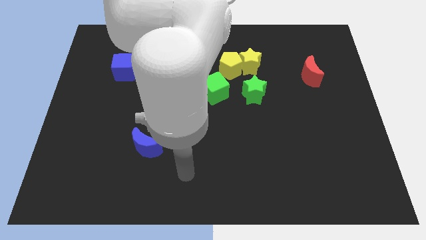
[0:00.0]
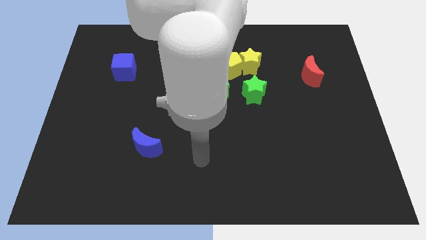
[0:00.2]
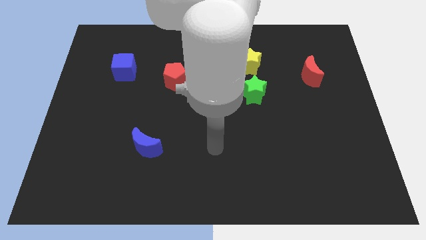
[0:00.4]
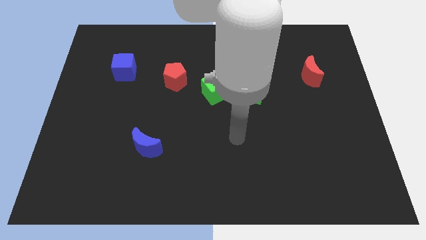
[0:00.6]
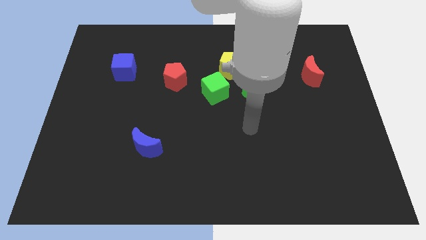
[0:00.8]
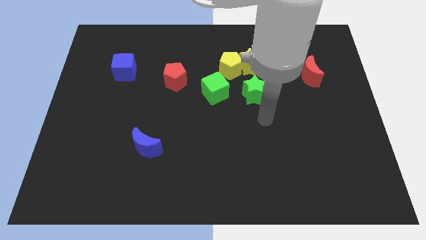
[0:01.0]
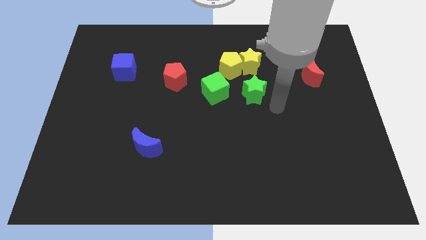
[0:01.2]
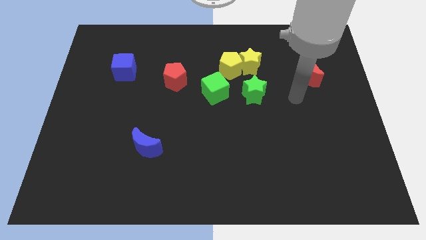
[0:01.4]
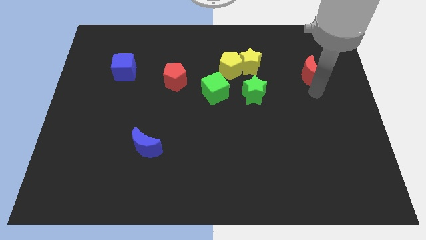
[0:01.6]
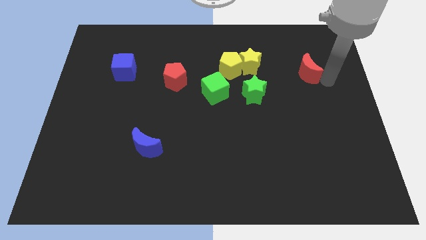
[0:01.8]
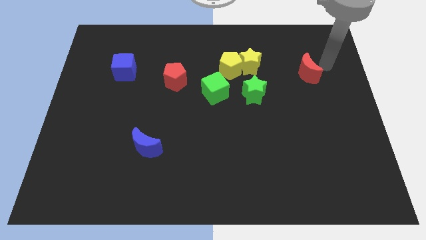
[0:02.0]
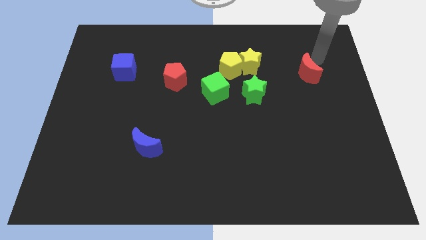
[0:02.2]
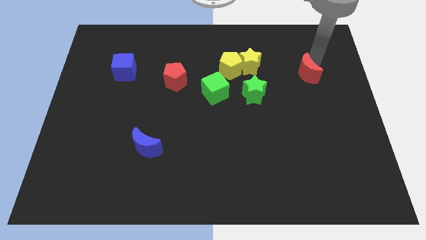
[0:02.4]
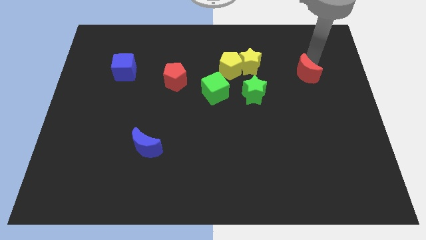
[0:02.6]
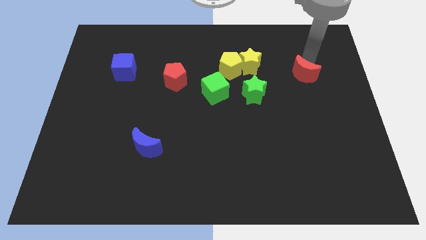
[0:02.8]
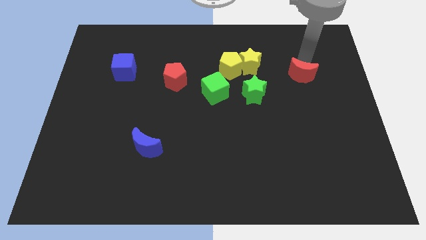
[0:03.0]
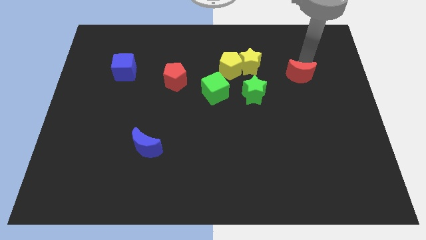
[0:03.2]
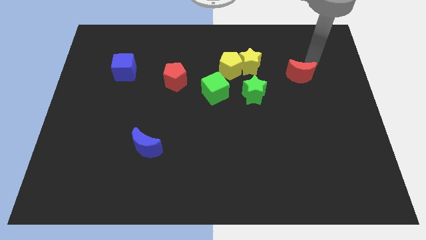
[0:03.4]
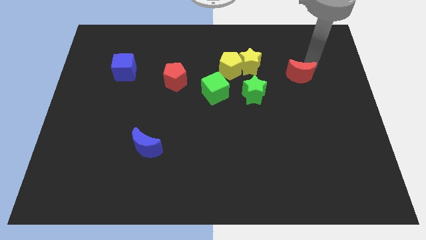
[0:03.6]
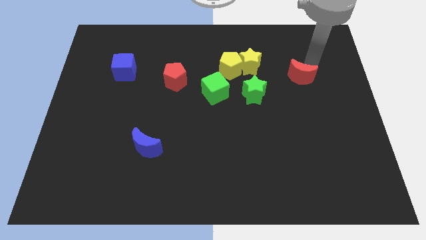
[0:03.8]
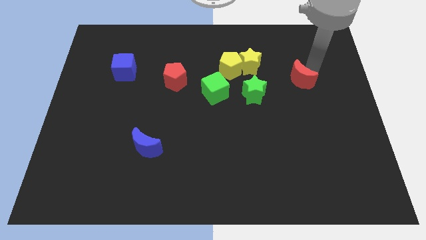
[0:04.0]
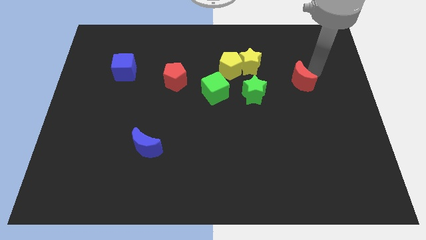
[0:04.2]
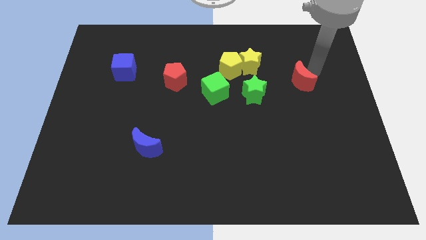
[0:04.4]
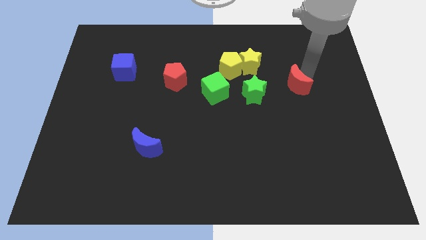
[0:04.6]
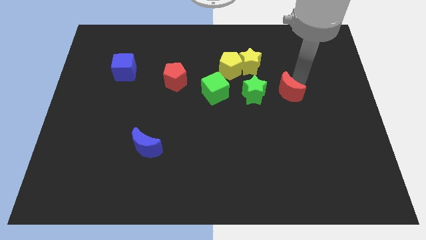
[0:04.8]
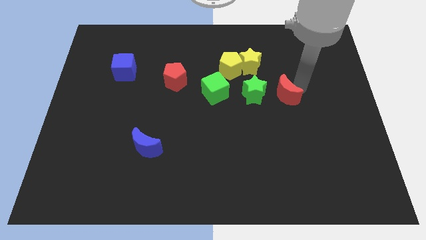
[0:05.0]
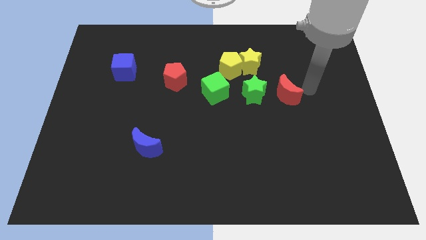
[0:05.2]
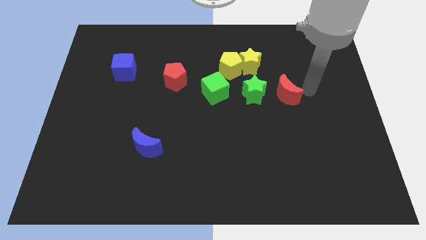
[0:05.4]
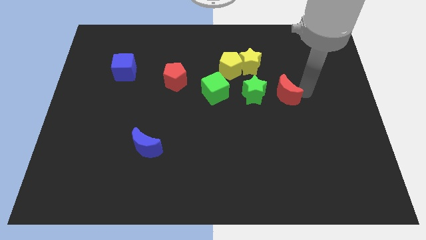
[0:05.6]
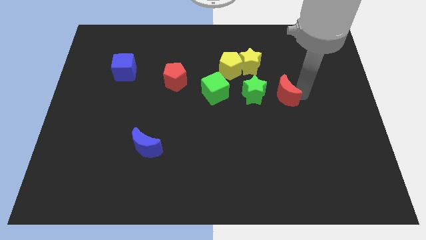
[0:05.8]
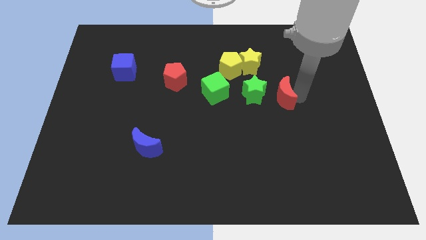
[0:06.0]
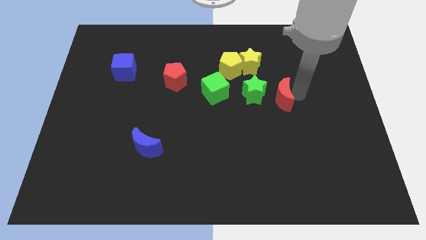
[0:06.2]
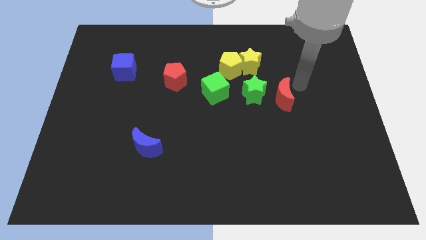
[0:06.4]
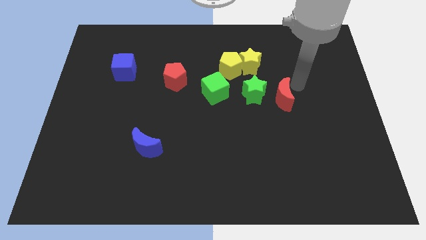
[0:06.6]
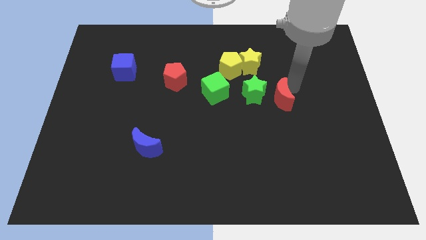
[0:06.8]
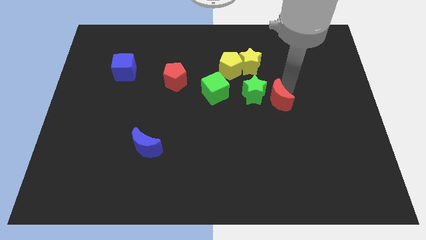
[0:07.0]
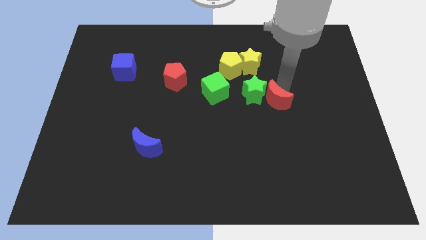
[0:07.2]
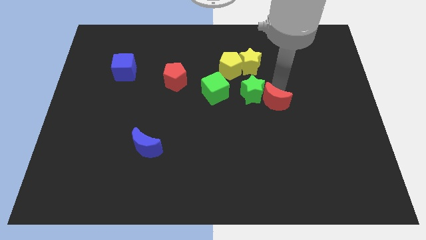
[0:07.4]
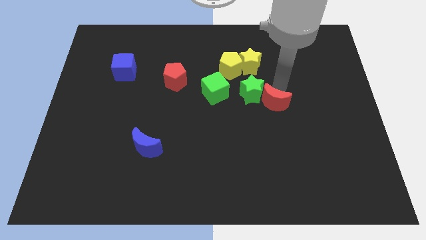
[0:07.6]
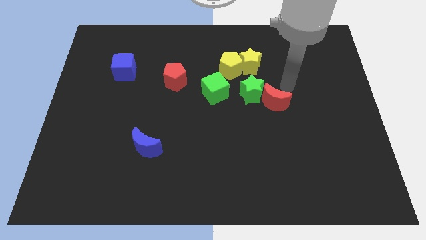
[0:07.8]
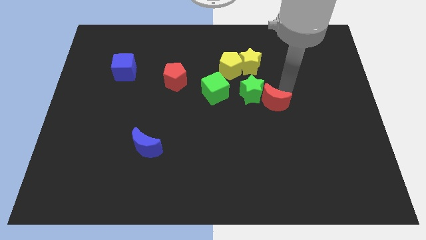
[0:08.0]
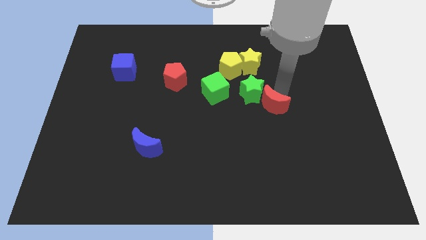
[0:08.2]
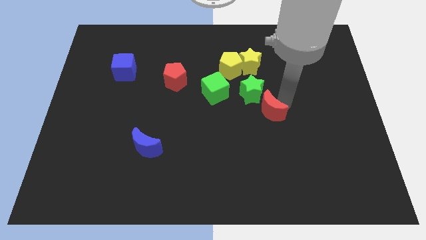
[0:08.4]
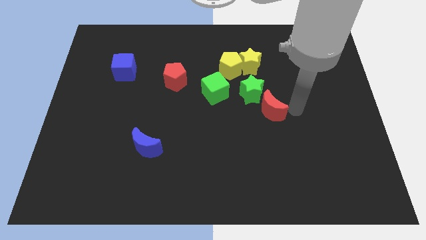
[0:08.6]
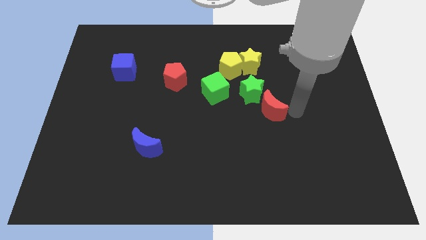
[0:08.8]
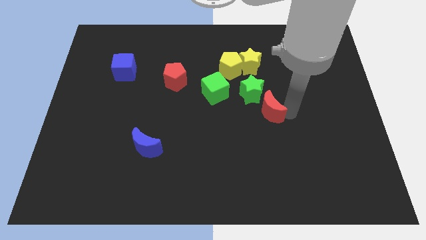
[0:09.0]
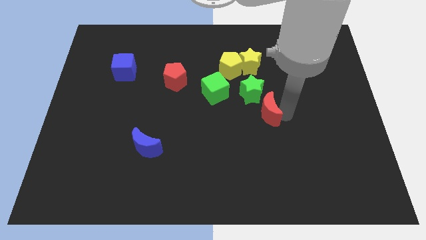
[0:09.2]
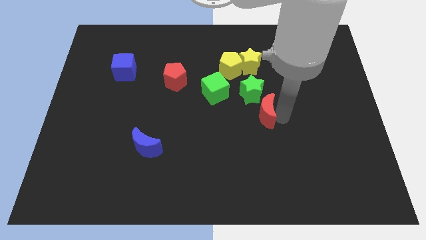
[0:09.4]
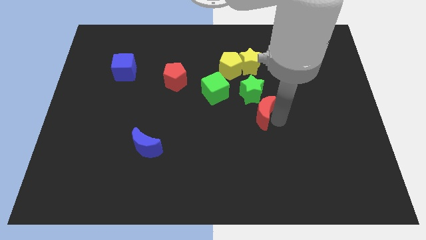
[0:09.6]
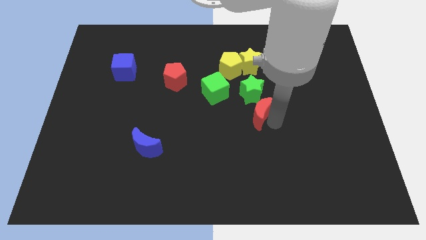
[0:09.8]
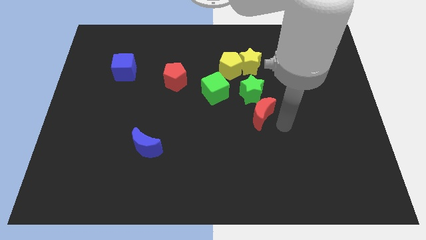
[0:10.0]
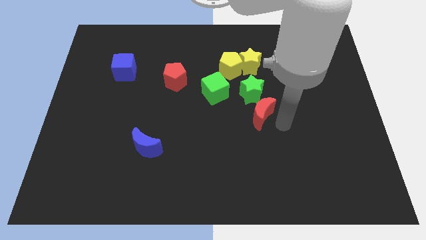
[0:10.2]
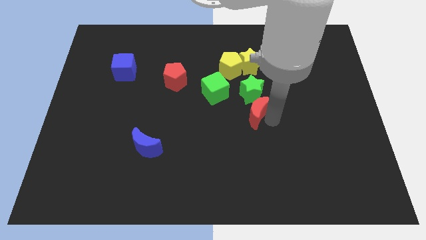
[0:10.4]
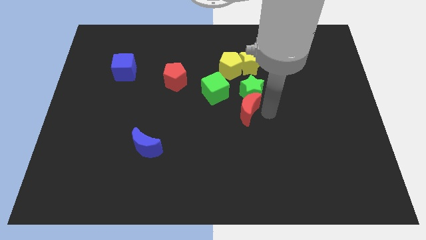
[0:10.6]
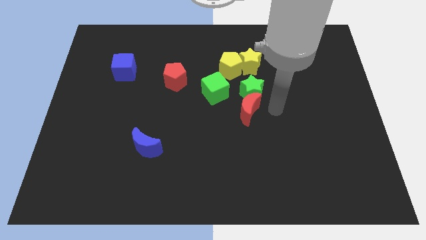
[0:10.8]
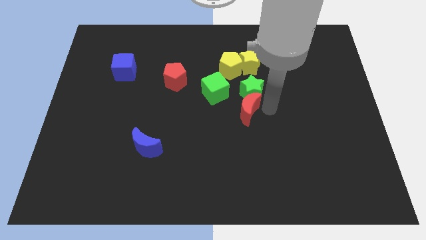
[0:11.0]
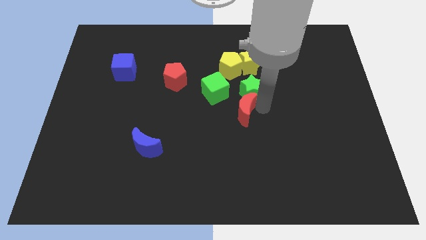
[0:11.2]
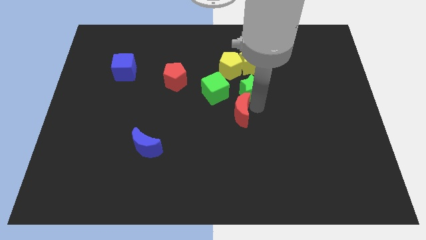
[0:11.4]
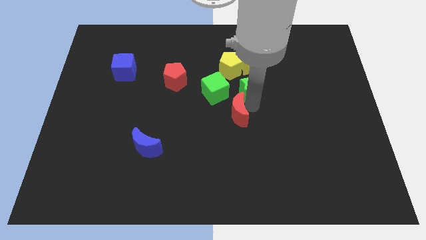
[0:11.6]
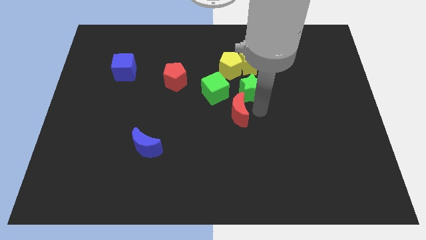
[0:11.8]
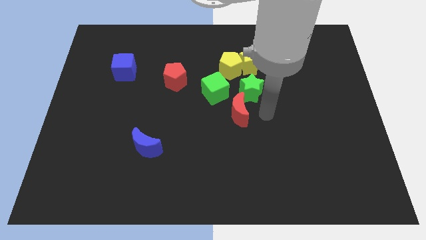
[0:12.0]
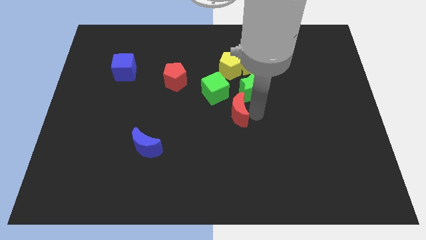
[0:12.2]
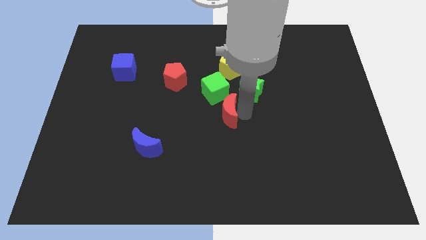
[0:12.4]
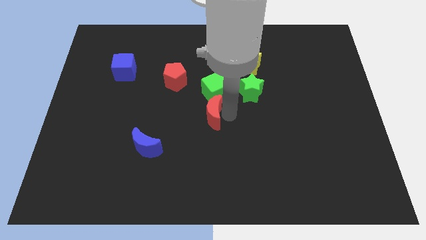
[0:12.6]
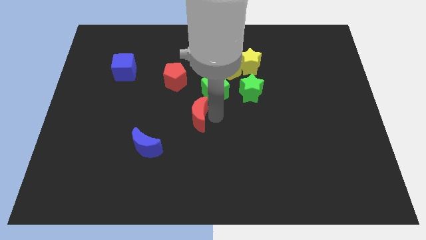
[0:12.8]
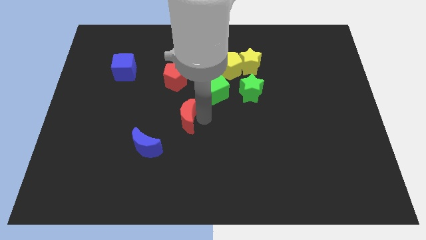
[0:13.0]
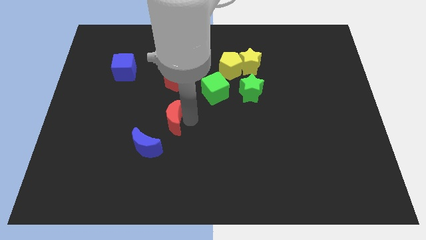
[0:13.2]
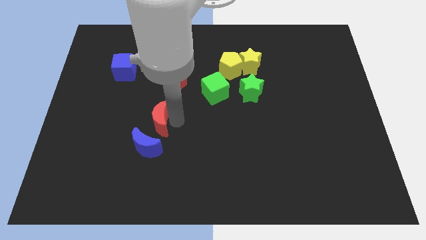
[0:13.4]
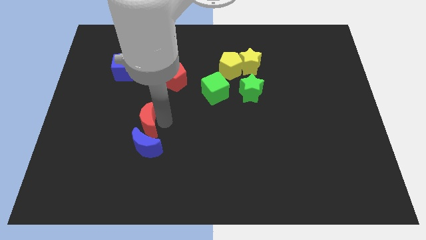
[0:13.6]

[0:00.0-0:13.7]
push the red moon to the top left of the blue moon
